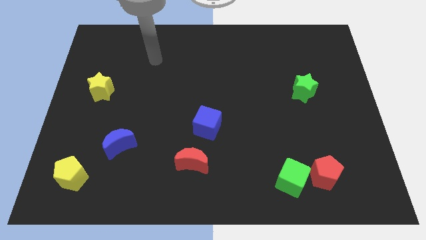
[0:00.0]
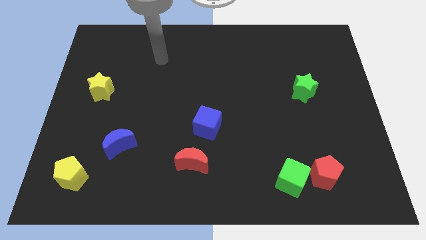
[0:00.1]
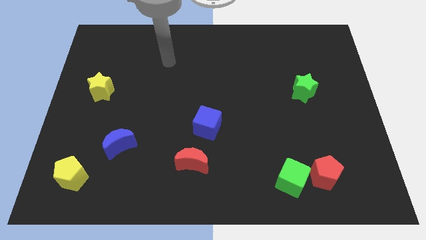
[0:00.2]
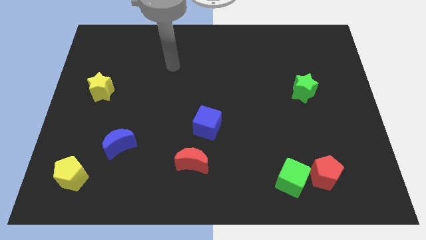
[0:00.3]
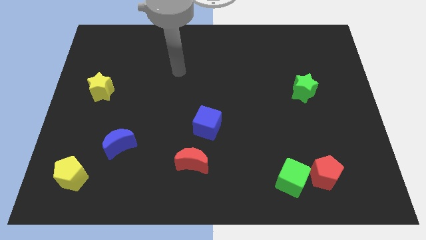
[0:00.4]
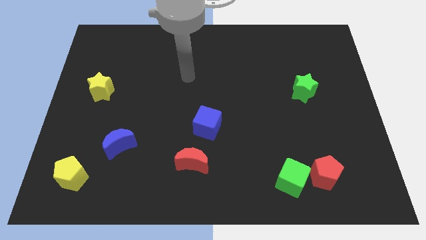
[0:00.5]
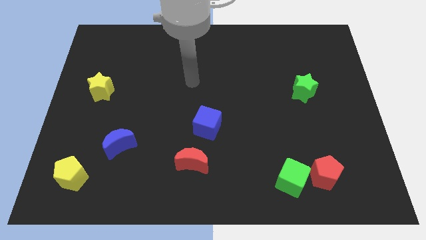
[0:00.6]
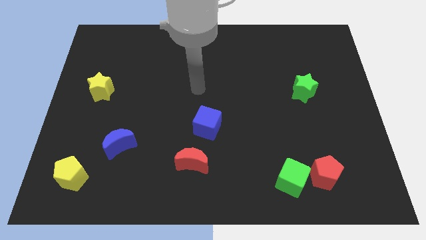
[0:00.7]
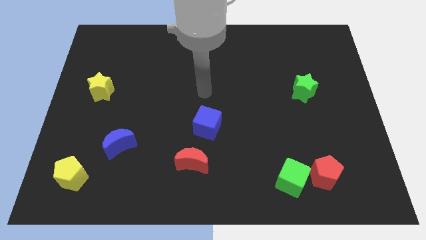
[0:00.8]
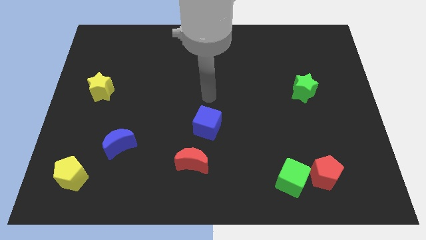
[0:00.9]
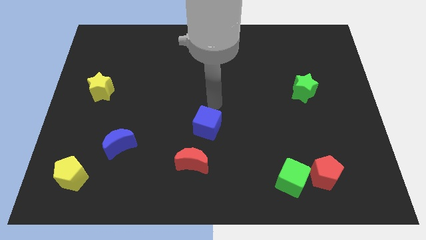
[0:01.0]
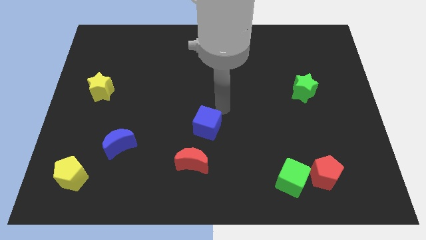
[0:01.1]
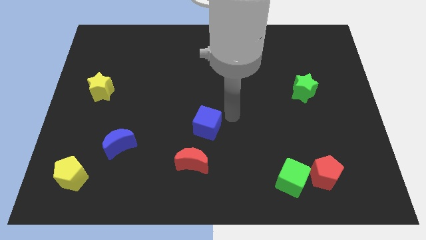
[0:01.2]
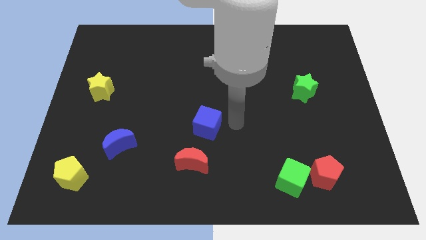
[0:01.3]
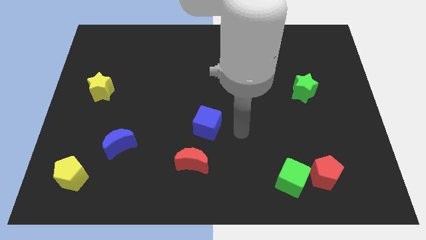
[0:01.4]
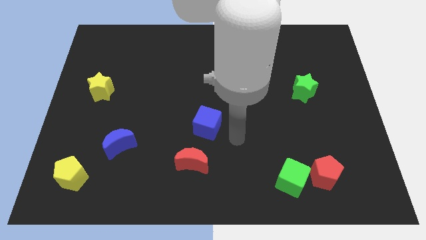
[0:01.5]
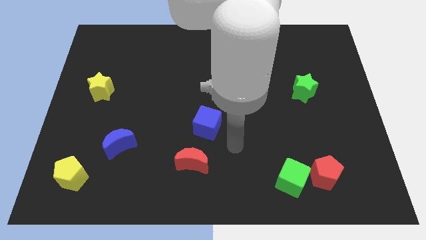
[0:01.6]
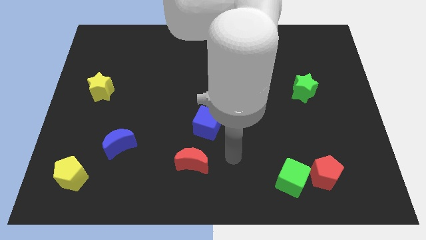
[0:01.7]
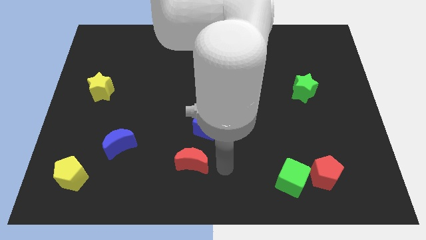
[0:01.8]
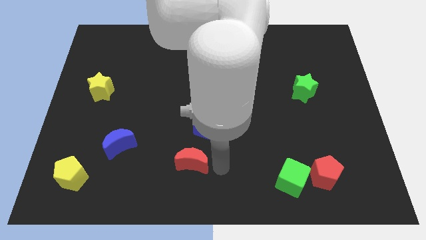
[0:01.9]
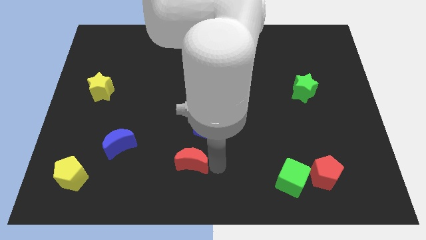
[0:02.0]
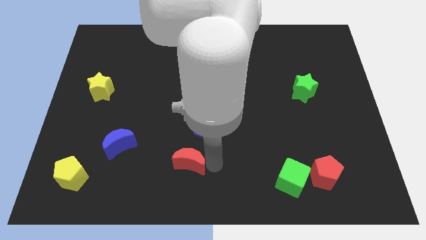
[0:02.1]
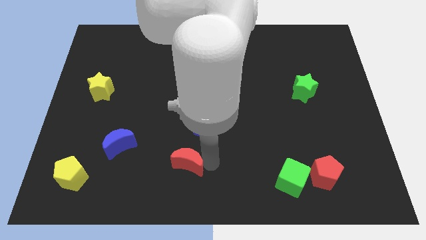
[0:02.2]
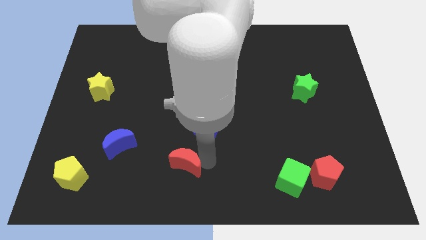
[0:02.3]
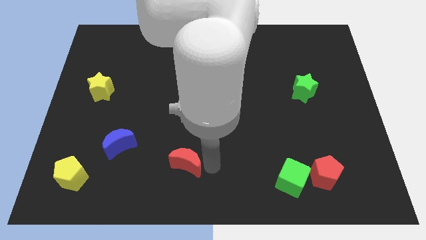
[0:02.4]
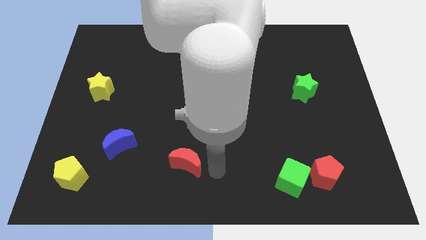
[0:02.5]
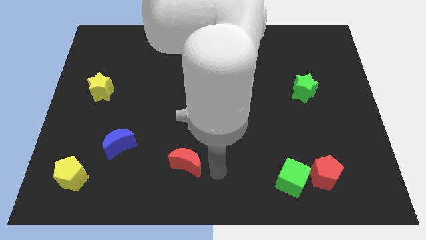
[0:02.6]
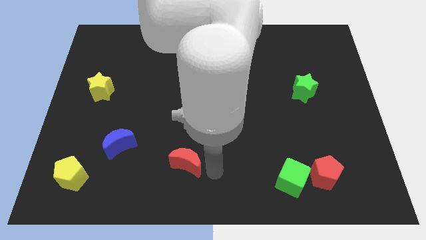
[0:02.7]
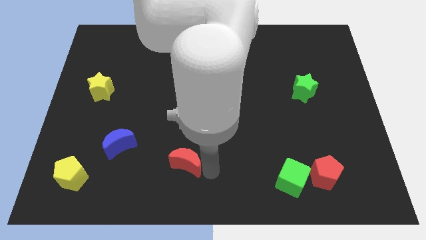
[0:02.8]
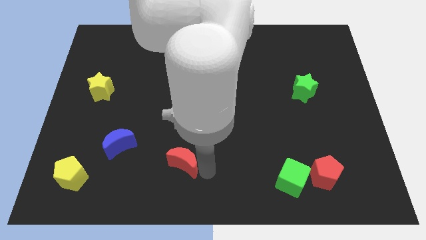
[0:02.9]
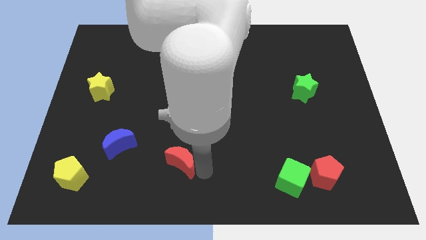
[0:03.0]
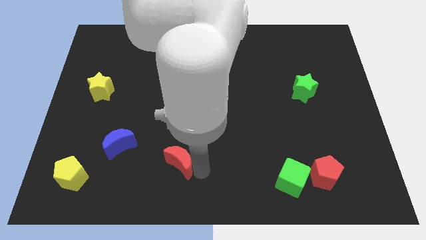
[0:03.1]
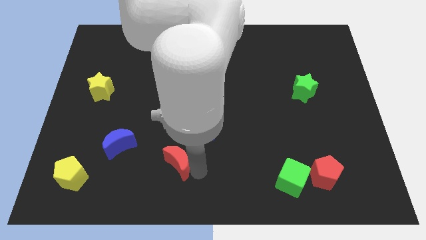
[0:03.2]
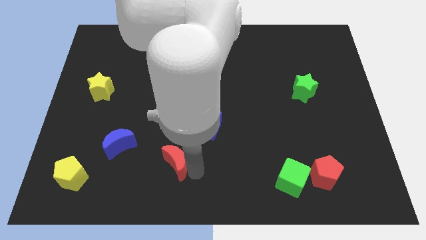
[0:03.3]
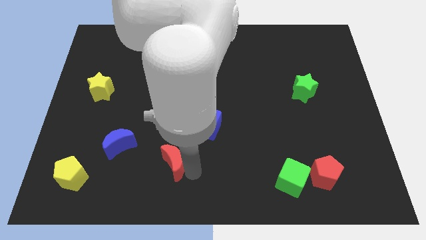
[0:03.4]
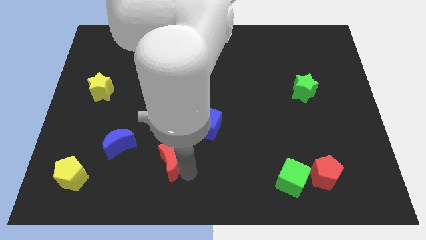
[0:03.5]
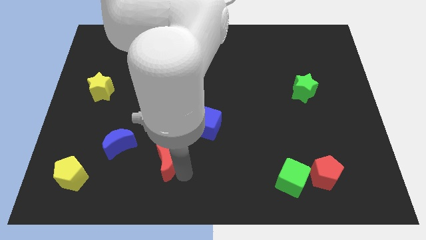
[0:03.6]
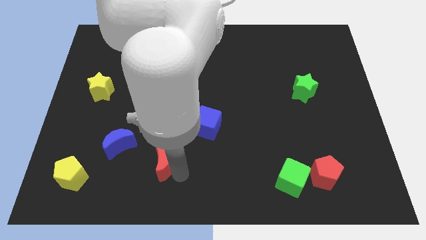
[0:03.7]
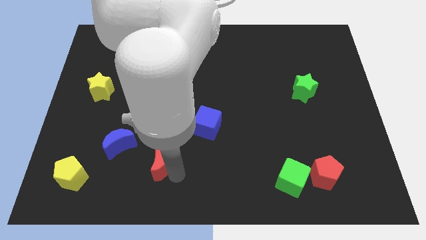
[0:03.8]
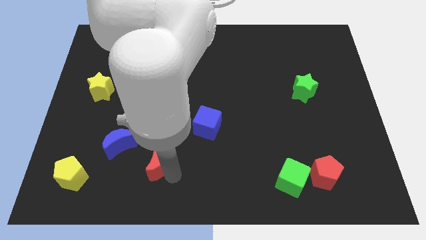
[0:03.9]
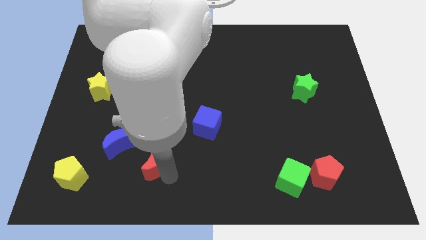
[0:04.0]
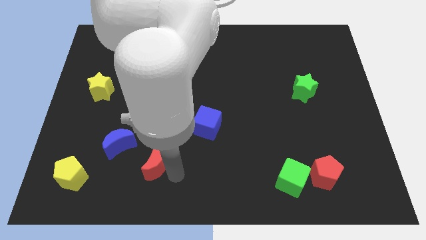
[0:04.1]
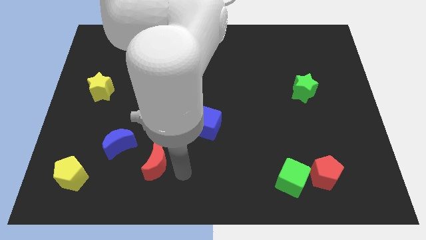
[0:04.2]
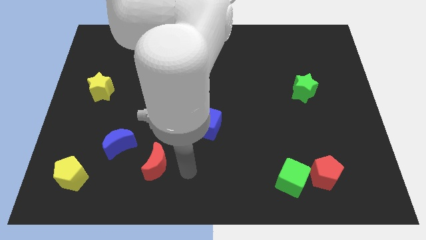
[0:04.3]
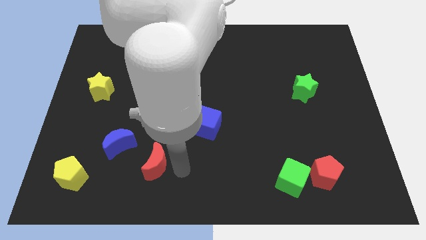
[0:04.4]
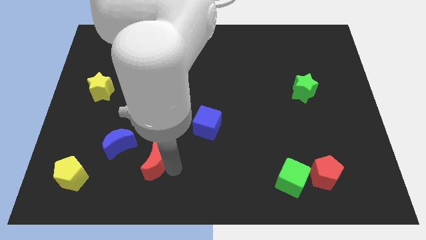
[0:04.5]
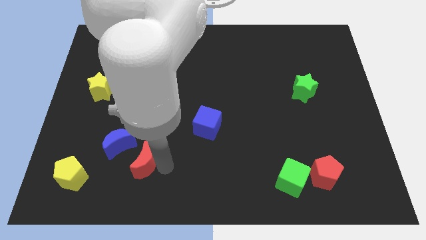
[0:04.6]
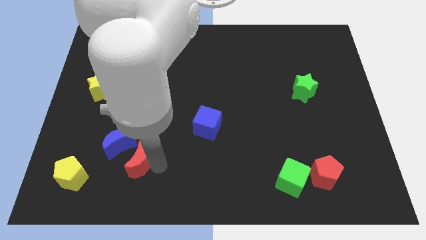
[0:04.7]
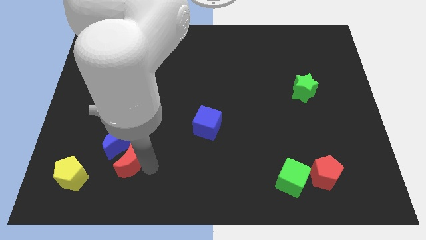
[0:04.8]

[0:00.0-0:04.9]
slide the red moon next to the blue moon

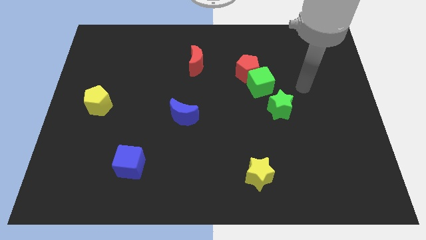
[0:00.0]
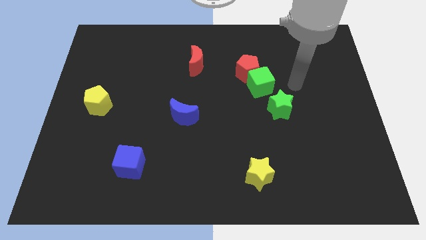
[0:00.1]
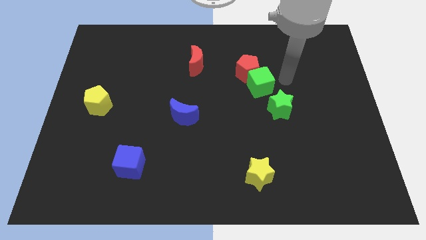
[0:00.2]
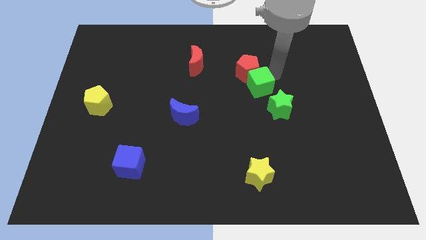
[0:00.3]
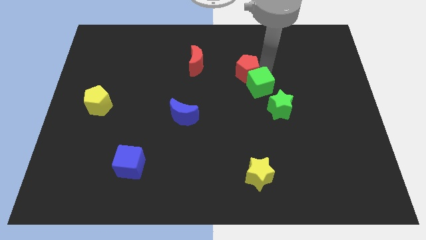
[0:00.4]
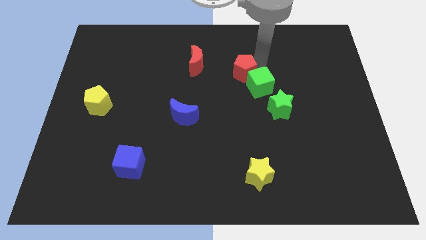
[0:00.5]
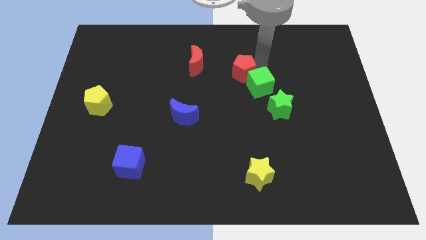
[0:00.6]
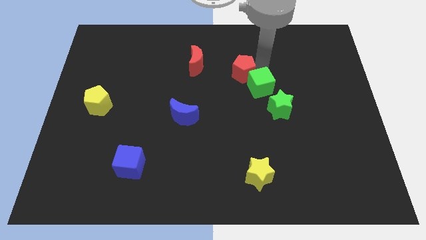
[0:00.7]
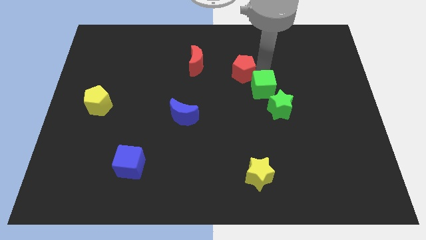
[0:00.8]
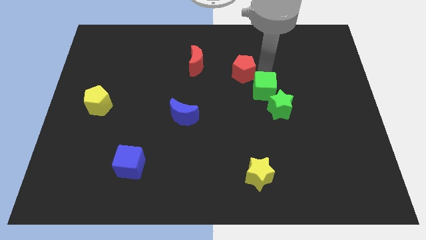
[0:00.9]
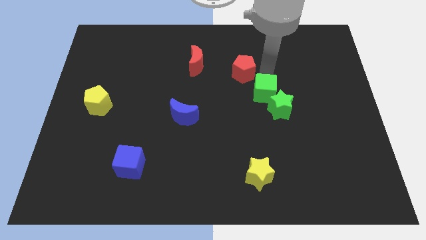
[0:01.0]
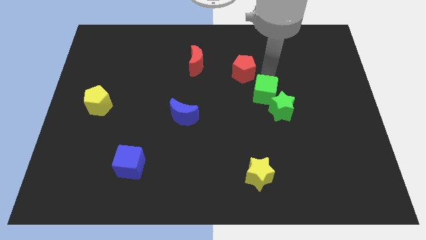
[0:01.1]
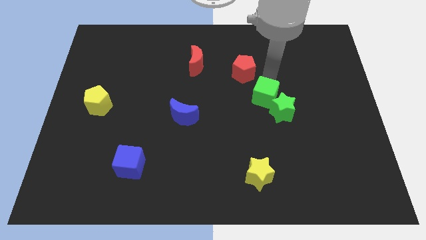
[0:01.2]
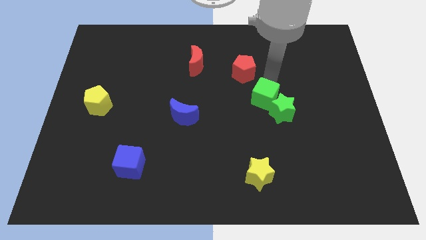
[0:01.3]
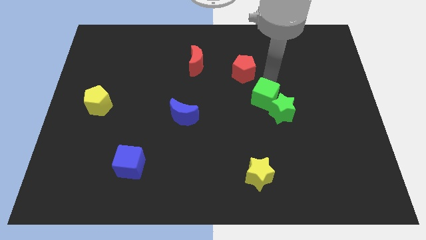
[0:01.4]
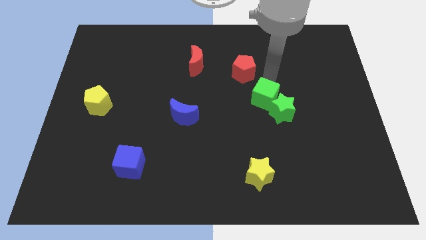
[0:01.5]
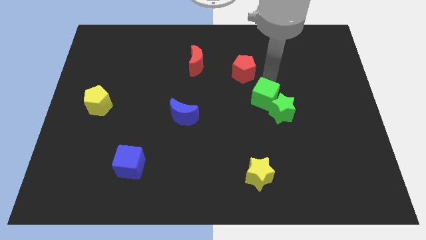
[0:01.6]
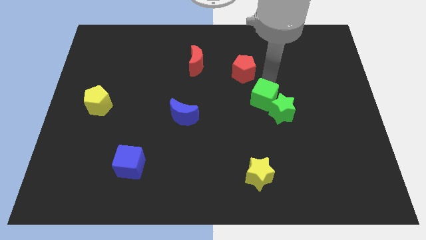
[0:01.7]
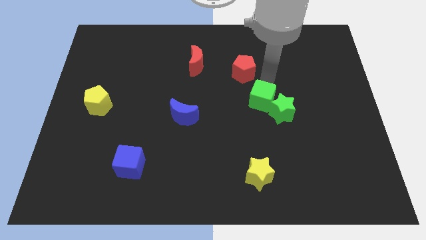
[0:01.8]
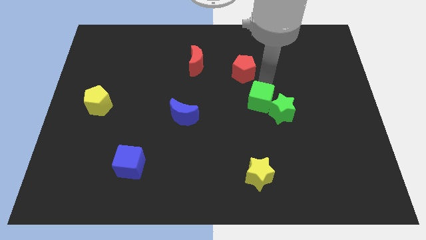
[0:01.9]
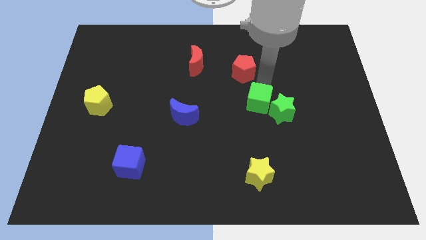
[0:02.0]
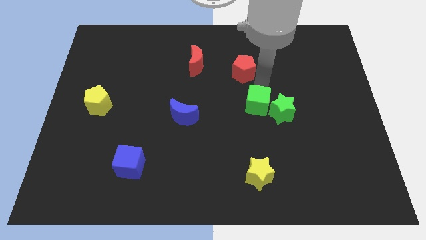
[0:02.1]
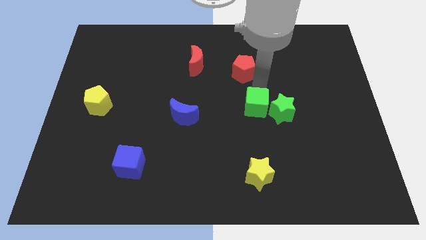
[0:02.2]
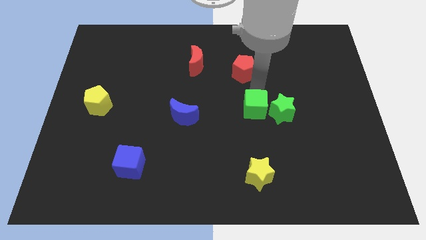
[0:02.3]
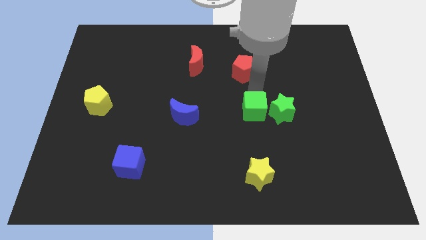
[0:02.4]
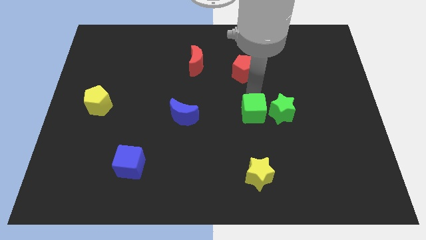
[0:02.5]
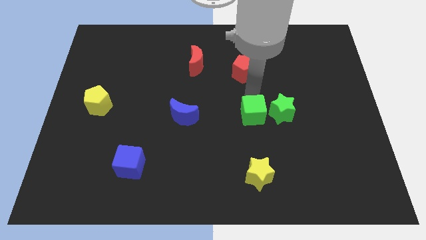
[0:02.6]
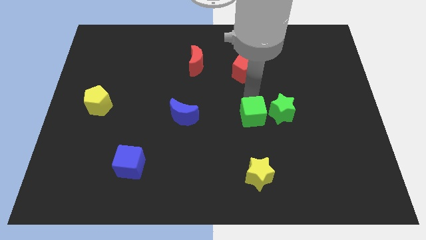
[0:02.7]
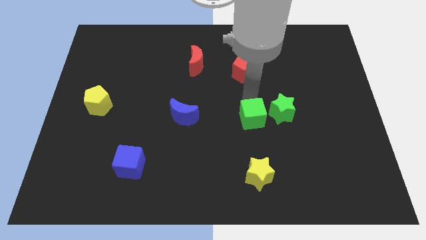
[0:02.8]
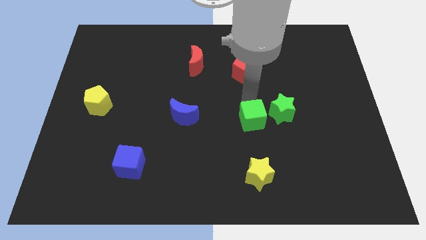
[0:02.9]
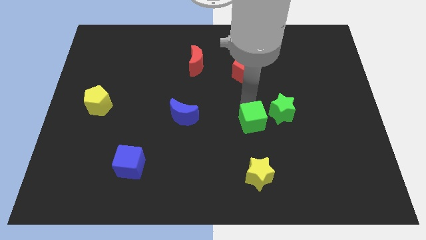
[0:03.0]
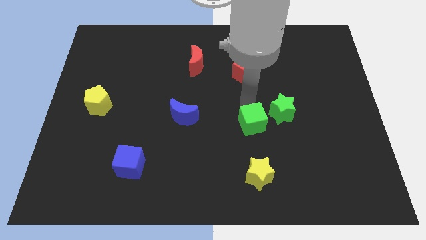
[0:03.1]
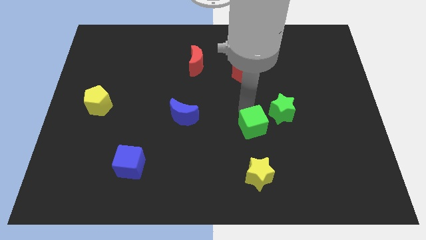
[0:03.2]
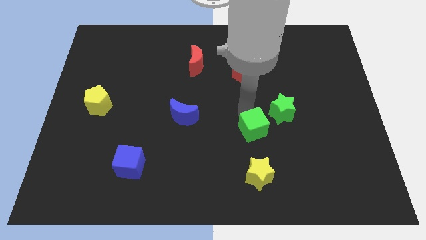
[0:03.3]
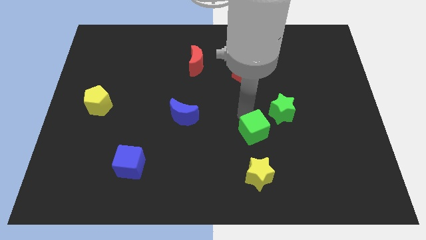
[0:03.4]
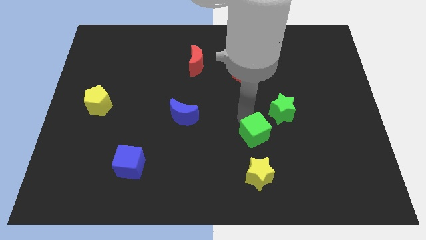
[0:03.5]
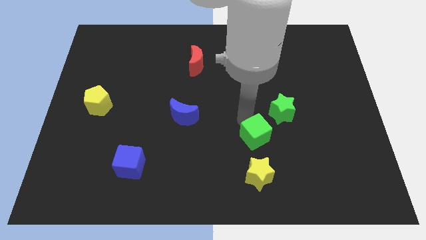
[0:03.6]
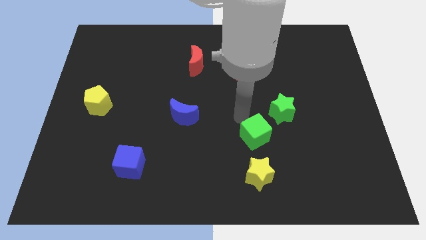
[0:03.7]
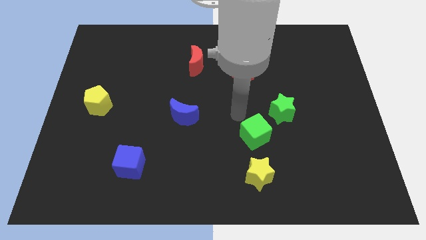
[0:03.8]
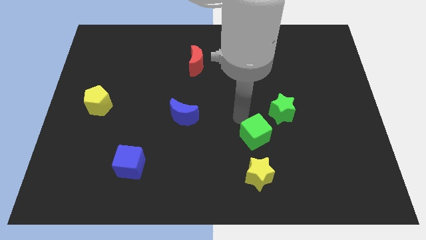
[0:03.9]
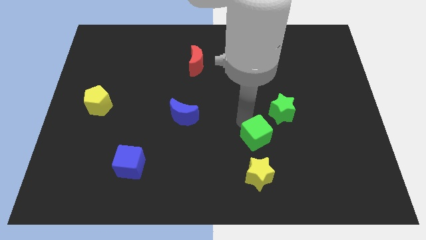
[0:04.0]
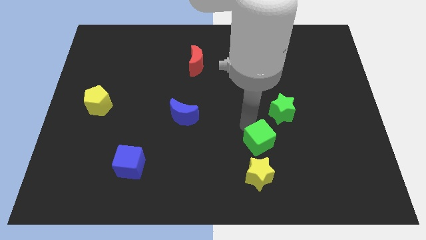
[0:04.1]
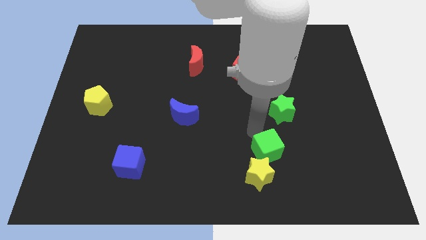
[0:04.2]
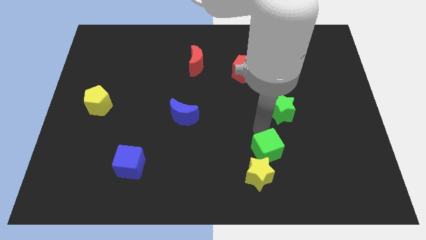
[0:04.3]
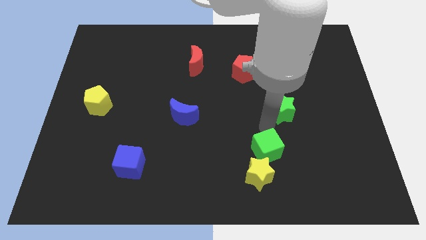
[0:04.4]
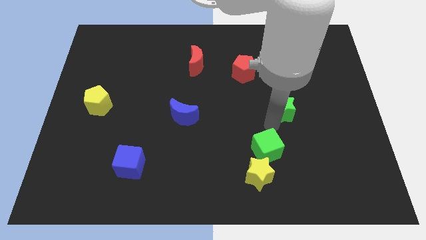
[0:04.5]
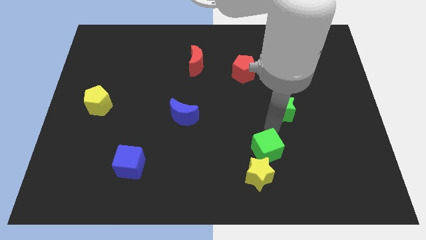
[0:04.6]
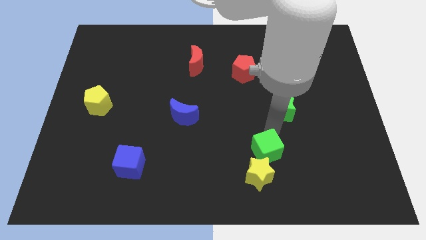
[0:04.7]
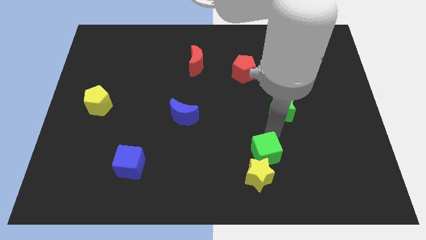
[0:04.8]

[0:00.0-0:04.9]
move the green cube next to the yellow star
